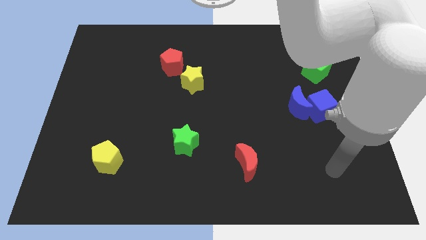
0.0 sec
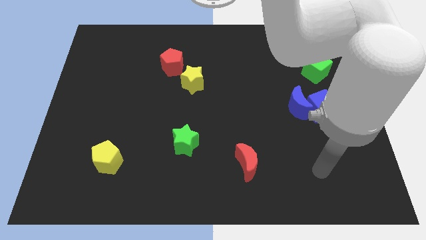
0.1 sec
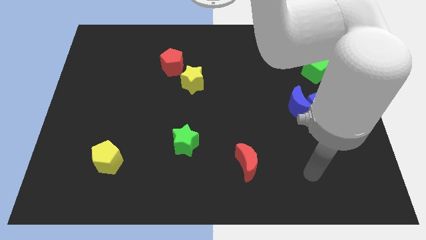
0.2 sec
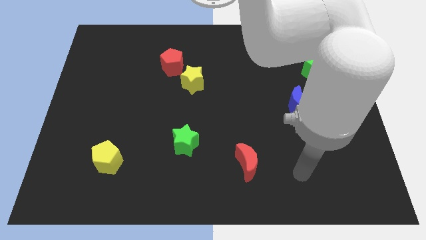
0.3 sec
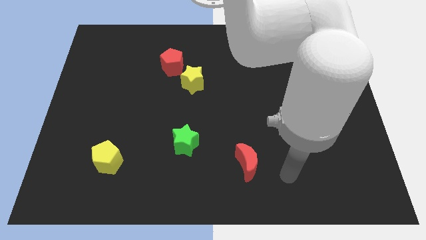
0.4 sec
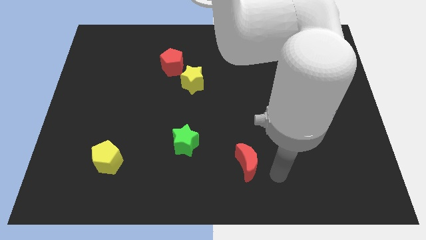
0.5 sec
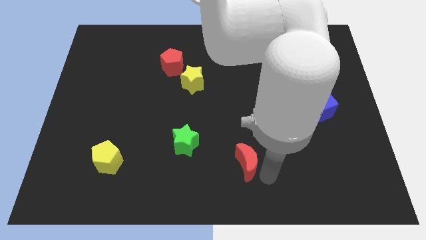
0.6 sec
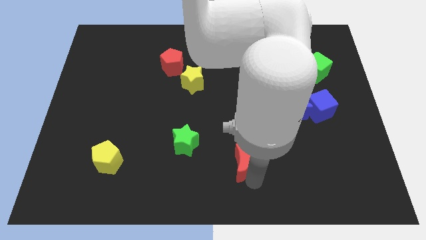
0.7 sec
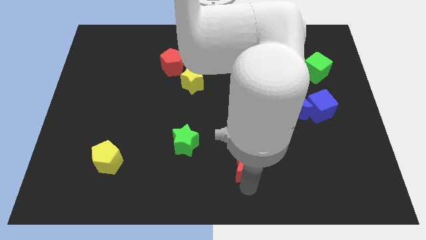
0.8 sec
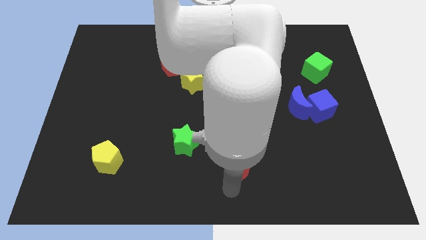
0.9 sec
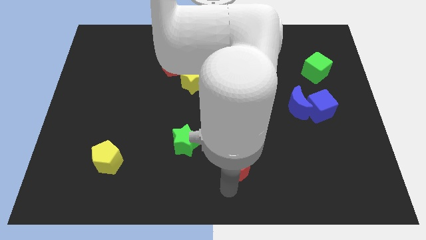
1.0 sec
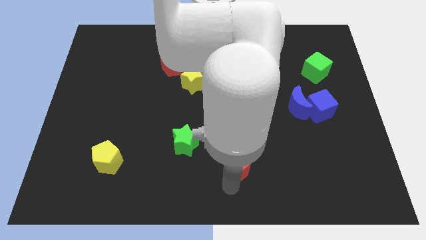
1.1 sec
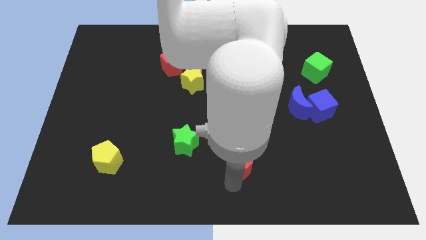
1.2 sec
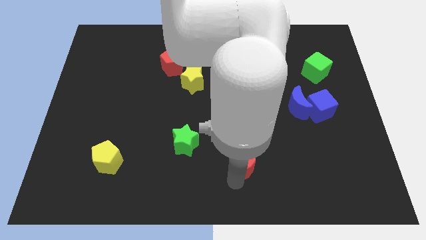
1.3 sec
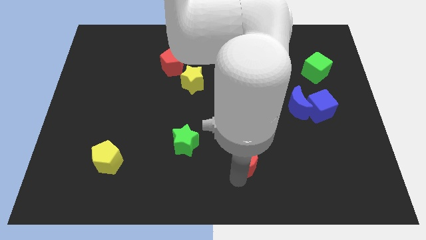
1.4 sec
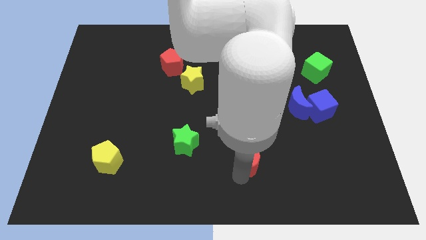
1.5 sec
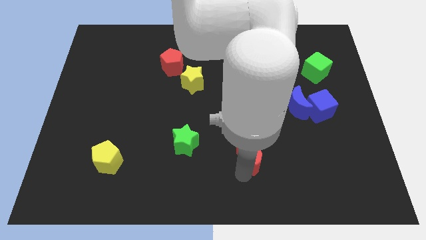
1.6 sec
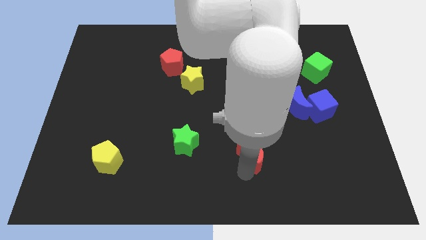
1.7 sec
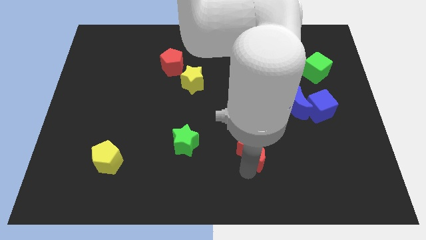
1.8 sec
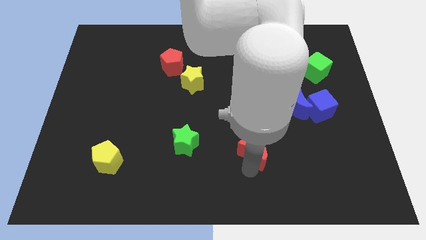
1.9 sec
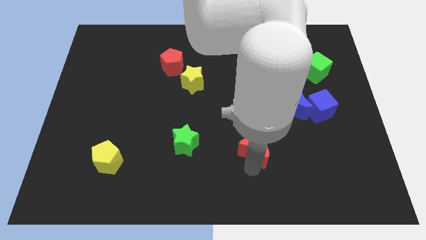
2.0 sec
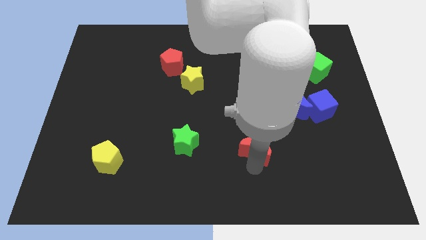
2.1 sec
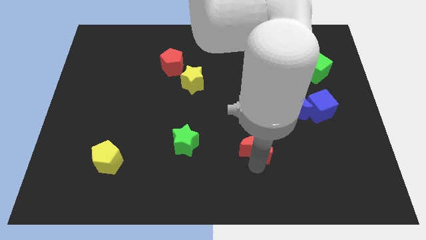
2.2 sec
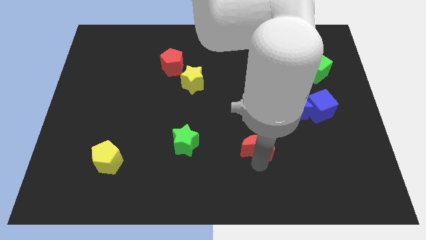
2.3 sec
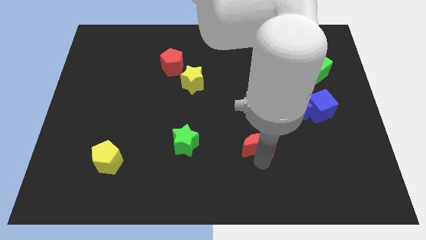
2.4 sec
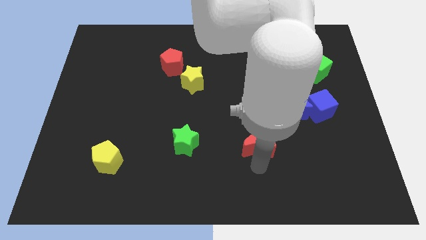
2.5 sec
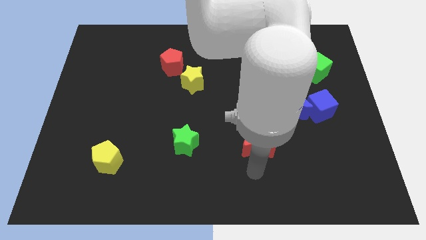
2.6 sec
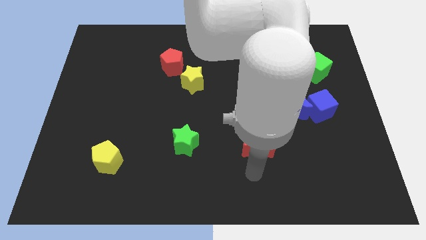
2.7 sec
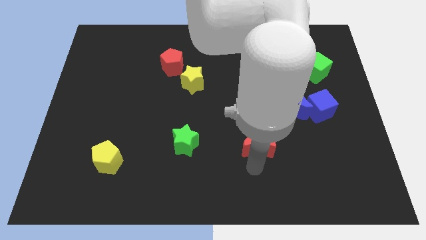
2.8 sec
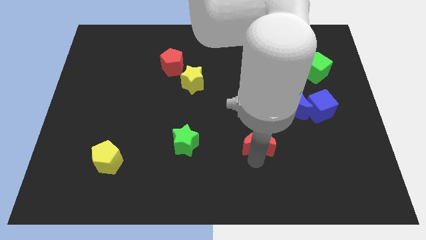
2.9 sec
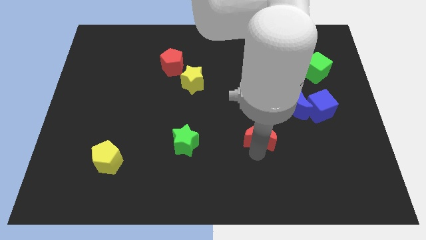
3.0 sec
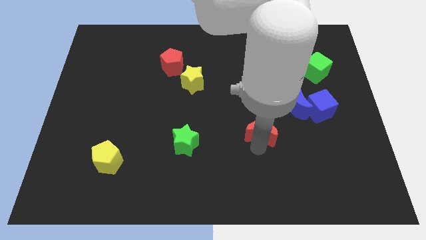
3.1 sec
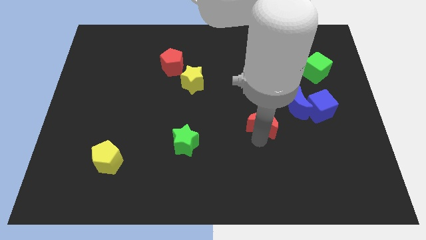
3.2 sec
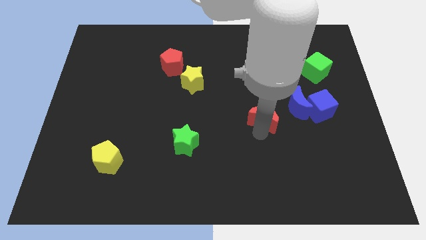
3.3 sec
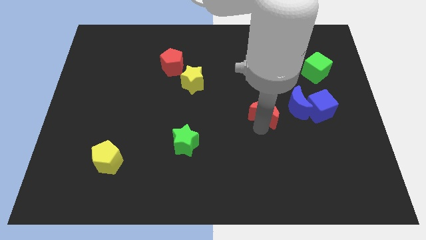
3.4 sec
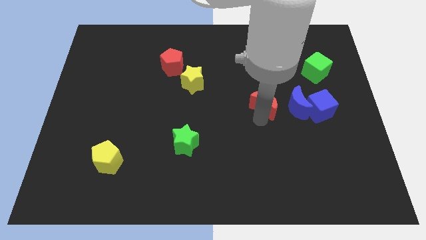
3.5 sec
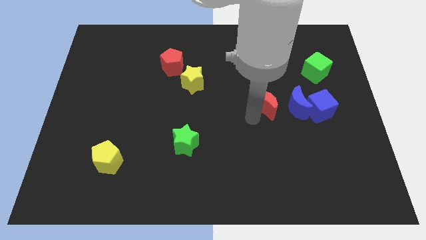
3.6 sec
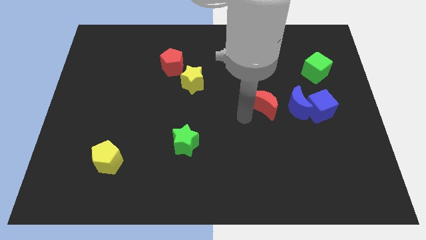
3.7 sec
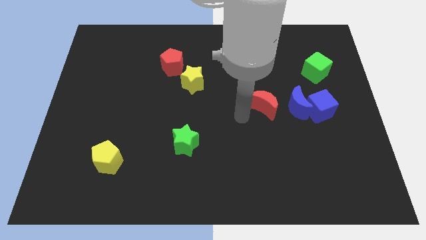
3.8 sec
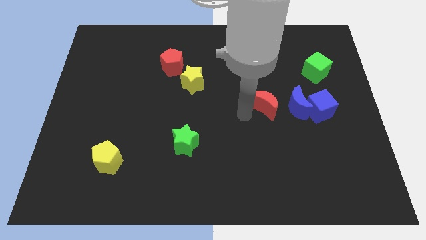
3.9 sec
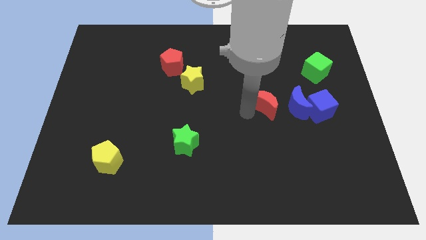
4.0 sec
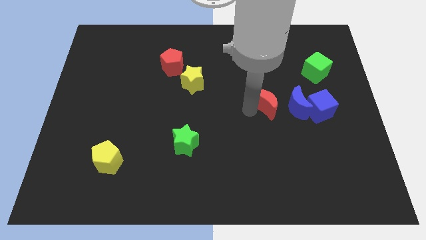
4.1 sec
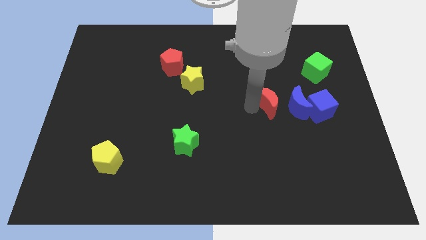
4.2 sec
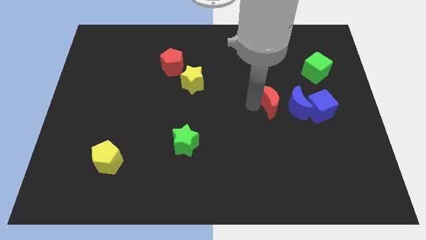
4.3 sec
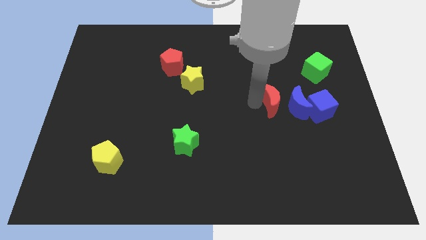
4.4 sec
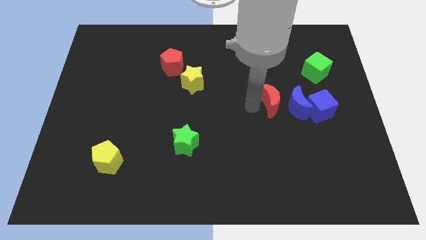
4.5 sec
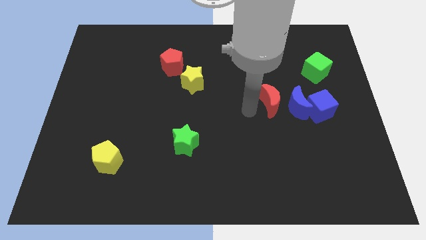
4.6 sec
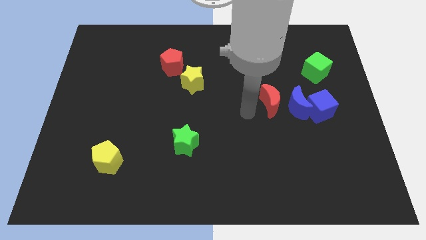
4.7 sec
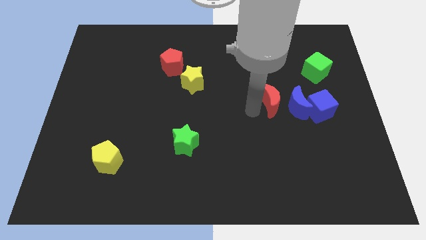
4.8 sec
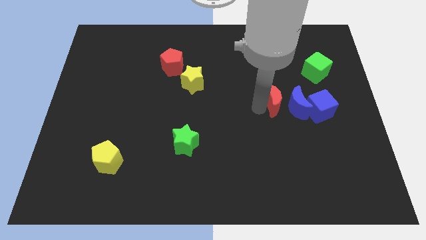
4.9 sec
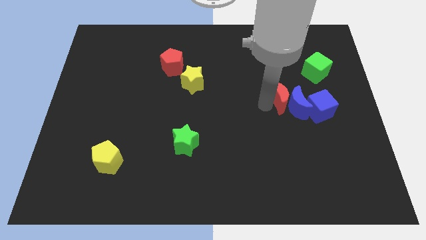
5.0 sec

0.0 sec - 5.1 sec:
slide the red moon diagonally up and to the left of the blue cube

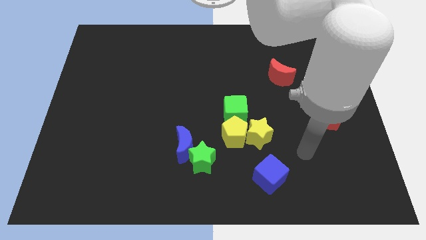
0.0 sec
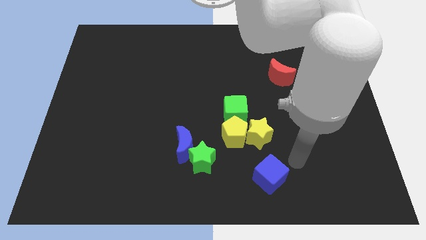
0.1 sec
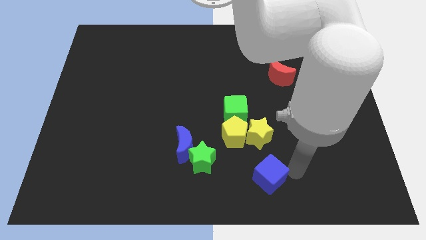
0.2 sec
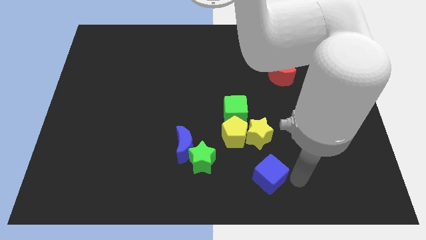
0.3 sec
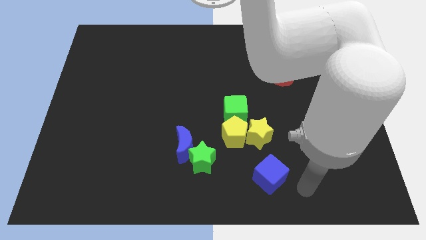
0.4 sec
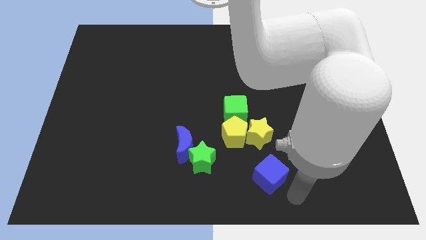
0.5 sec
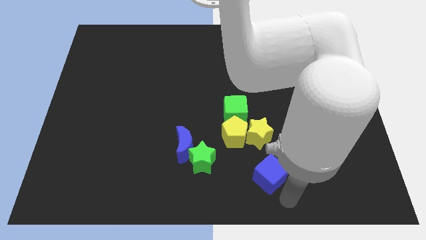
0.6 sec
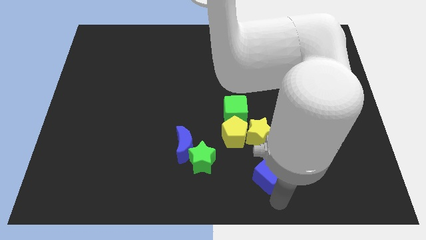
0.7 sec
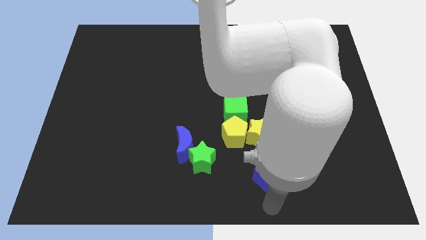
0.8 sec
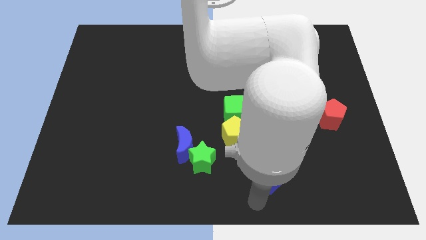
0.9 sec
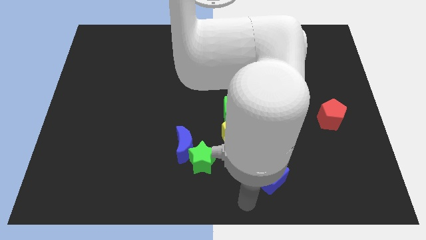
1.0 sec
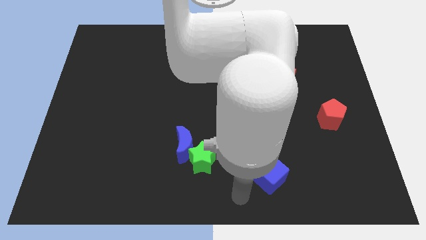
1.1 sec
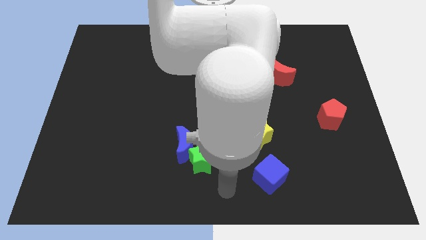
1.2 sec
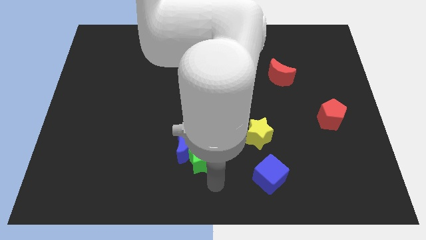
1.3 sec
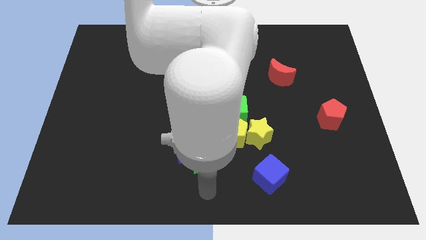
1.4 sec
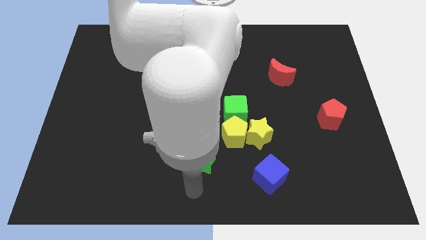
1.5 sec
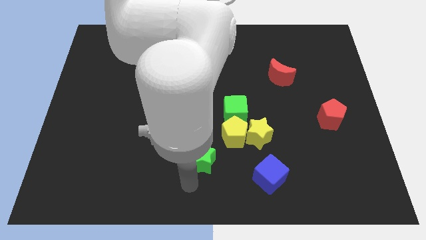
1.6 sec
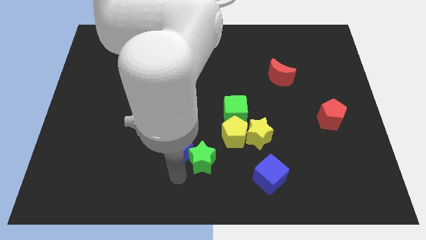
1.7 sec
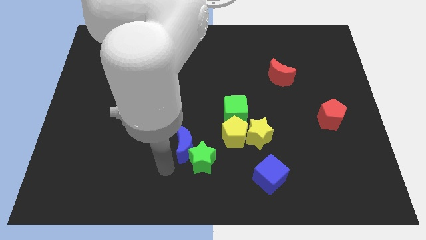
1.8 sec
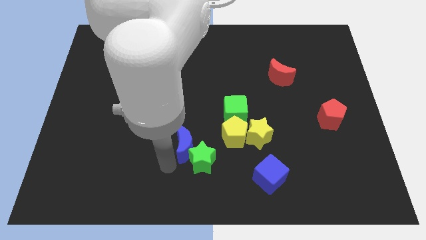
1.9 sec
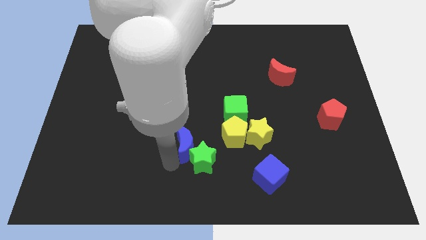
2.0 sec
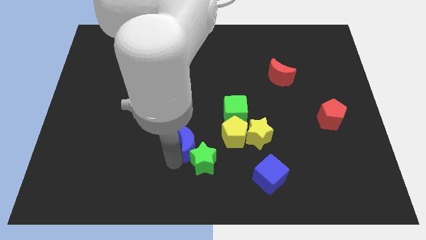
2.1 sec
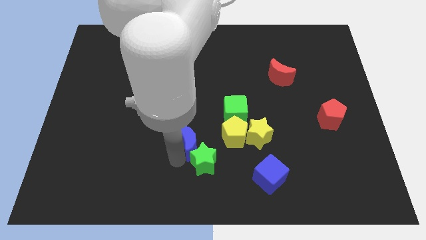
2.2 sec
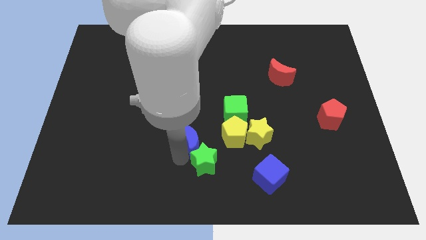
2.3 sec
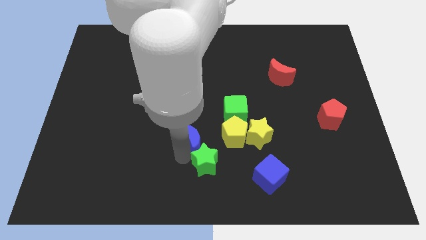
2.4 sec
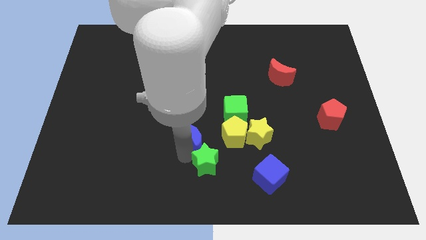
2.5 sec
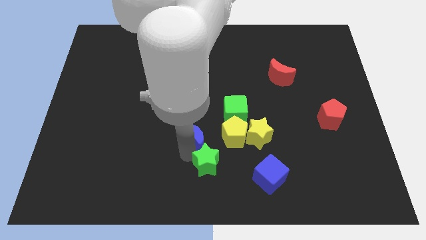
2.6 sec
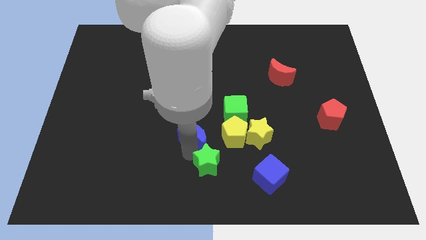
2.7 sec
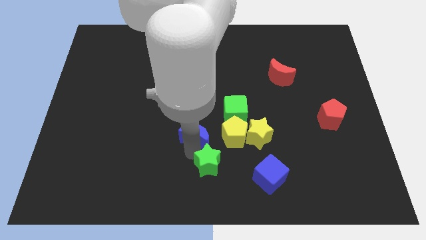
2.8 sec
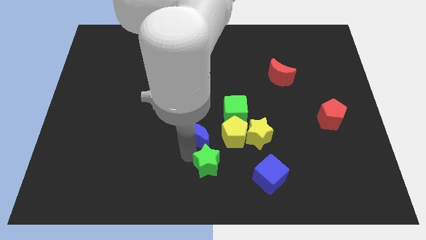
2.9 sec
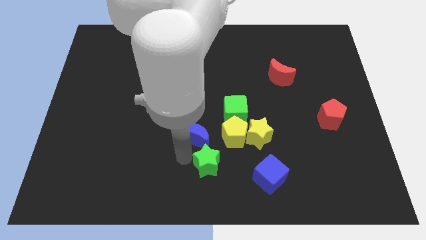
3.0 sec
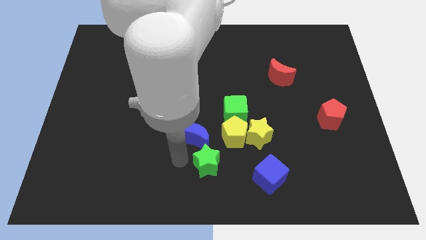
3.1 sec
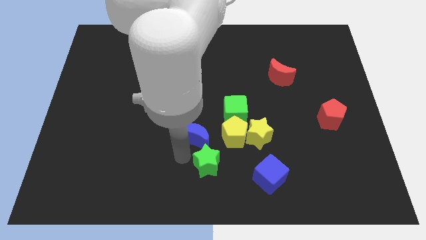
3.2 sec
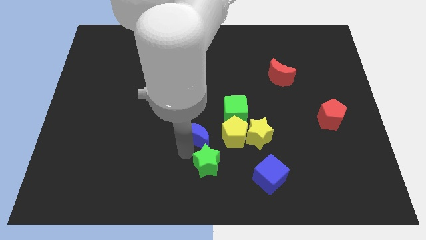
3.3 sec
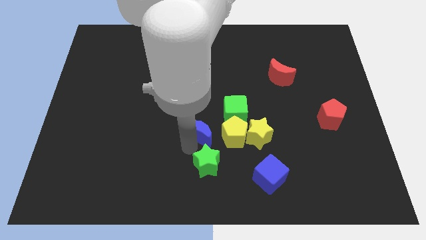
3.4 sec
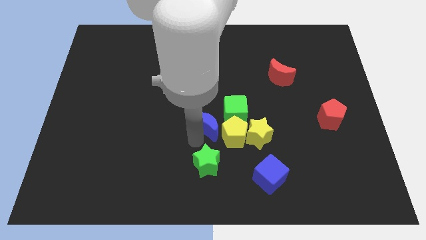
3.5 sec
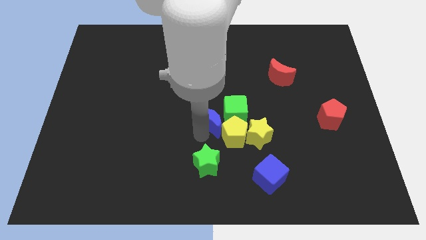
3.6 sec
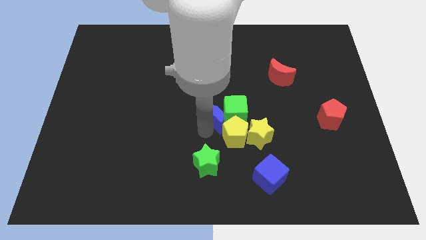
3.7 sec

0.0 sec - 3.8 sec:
slide the blue moon above the yellow pentagon
